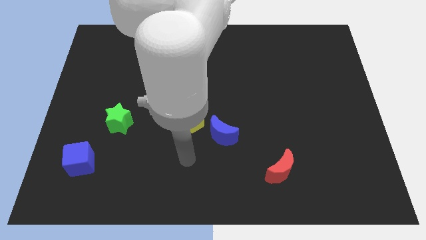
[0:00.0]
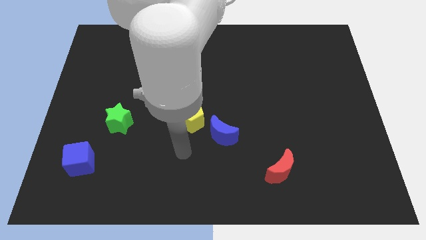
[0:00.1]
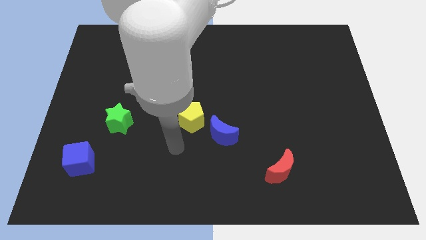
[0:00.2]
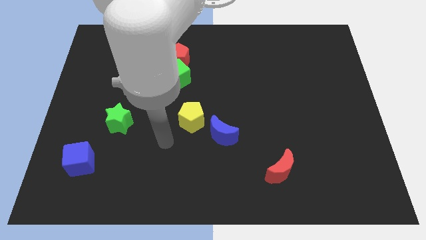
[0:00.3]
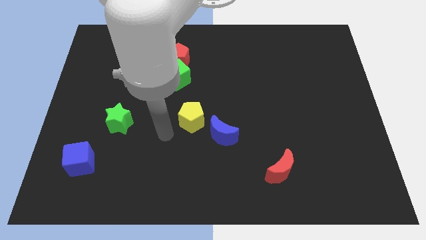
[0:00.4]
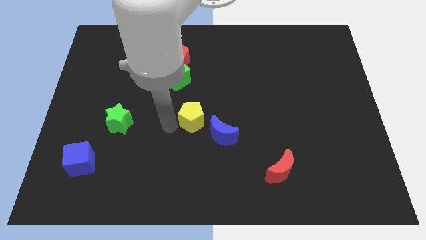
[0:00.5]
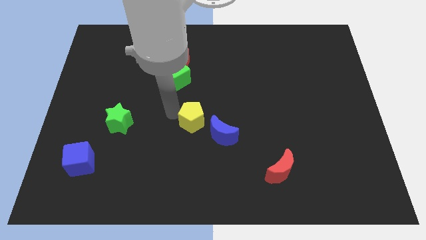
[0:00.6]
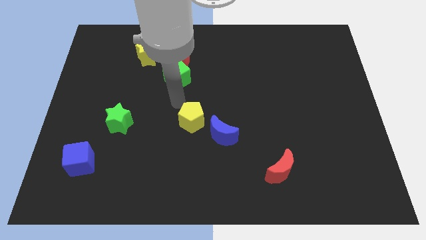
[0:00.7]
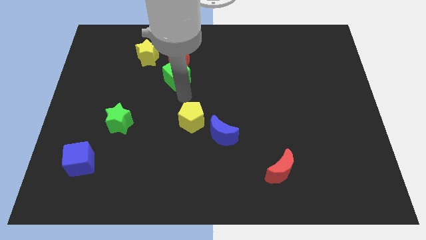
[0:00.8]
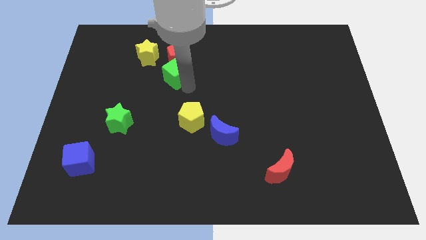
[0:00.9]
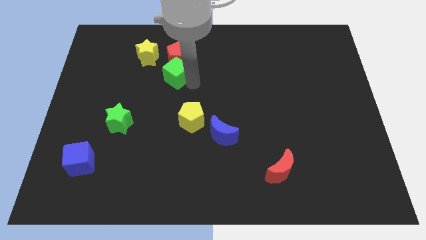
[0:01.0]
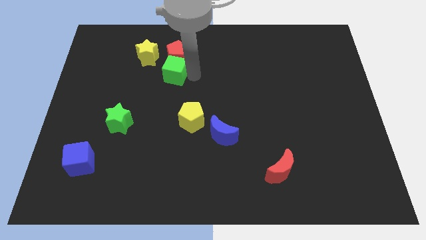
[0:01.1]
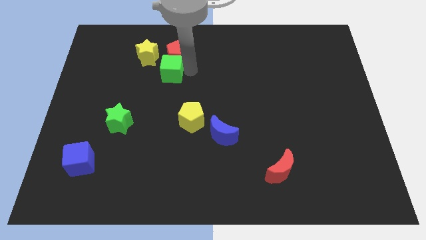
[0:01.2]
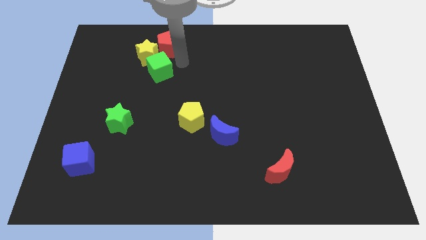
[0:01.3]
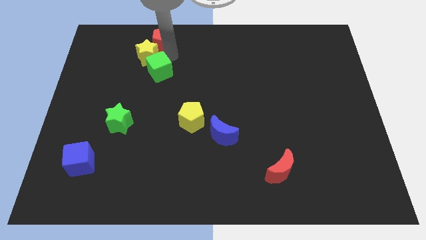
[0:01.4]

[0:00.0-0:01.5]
pull the green cube apart from the red pentagon

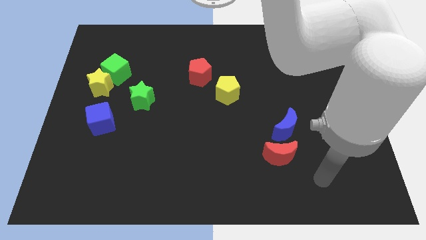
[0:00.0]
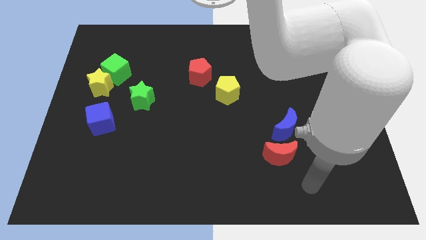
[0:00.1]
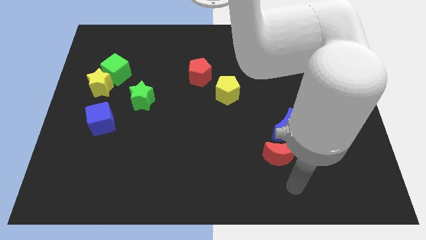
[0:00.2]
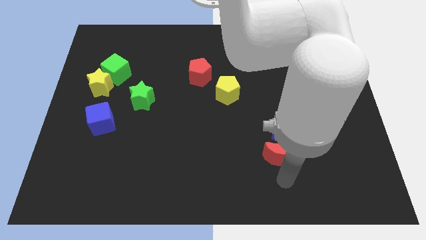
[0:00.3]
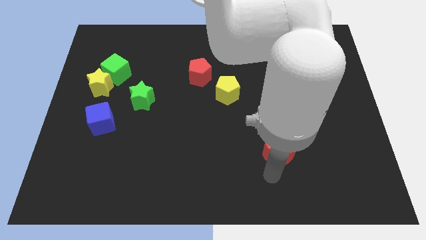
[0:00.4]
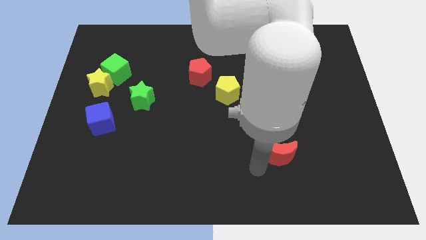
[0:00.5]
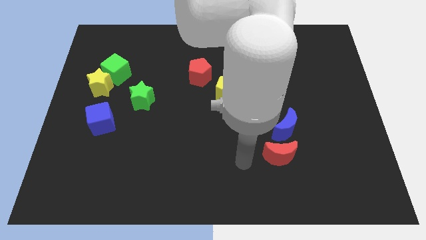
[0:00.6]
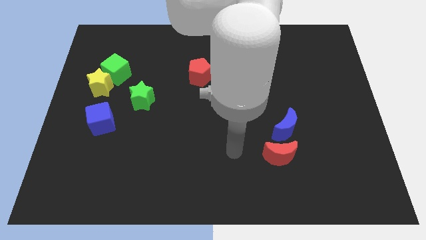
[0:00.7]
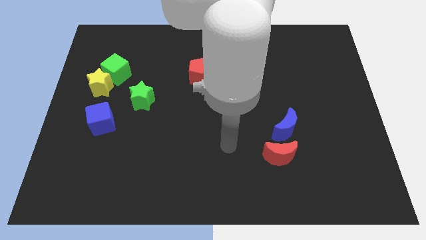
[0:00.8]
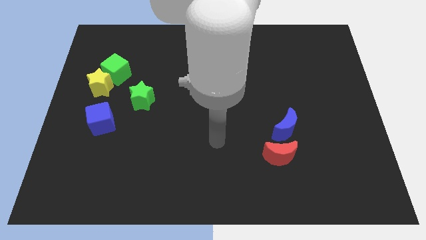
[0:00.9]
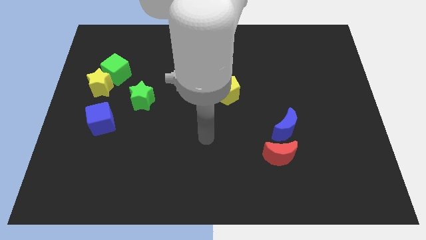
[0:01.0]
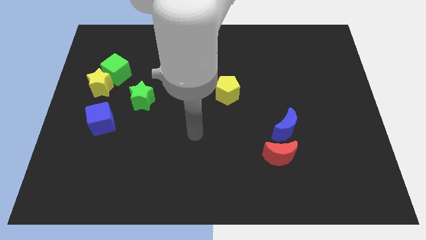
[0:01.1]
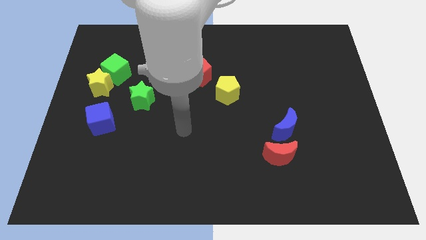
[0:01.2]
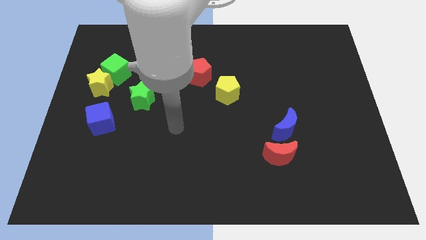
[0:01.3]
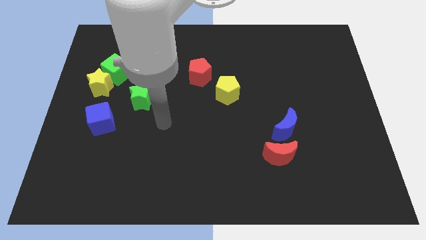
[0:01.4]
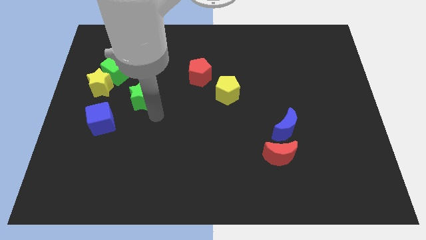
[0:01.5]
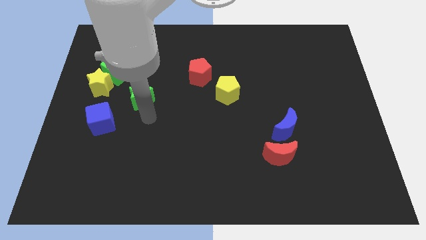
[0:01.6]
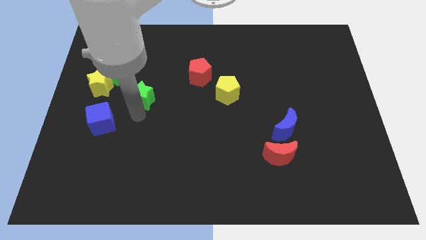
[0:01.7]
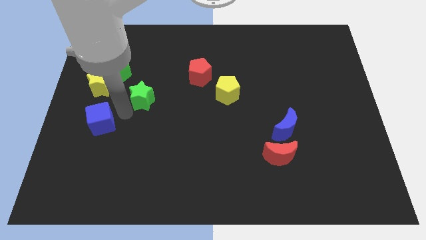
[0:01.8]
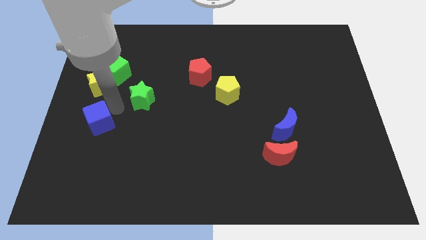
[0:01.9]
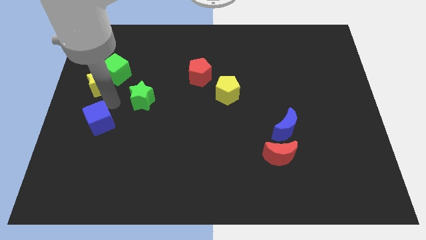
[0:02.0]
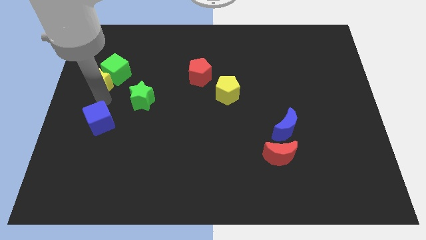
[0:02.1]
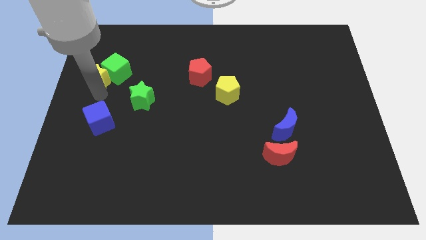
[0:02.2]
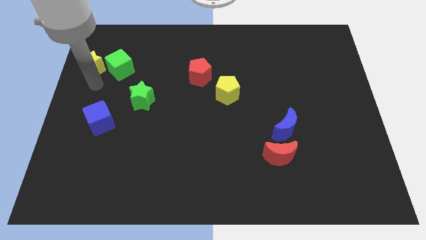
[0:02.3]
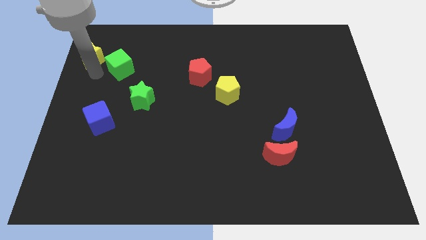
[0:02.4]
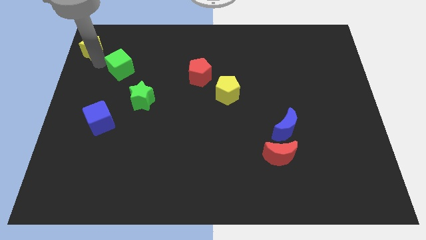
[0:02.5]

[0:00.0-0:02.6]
pull the green cube apart from the yellow star

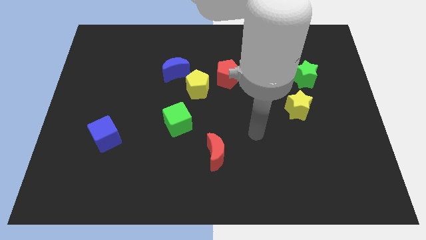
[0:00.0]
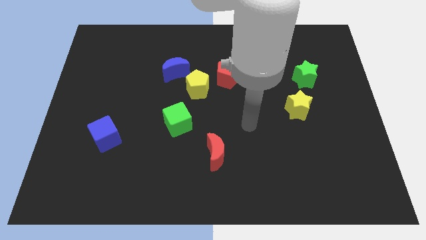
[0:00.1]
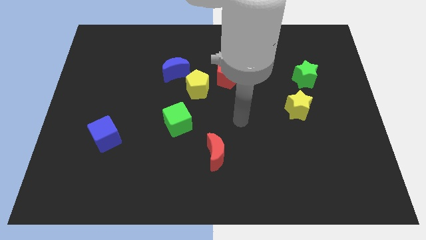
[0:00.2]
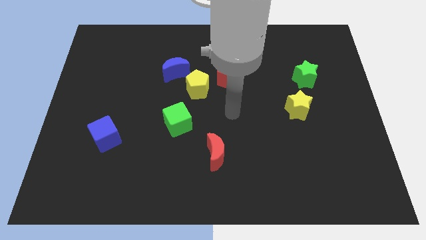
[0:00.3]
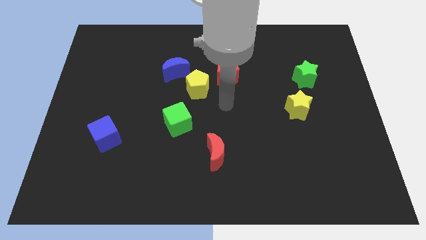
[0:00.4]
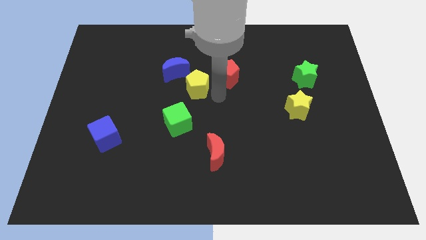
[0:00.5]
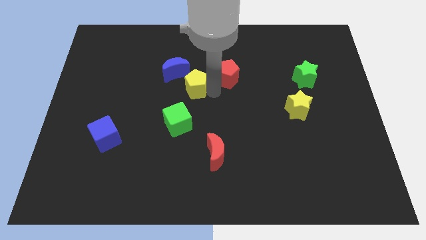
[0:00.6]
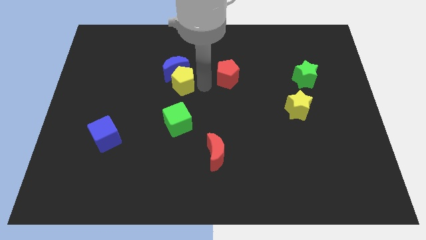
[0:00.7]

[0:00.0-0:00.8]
move the red pentagon away from the yellow pentagon

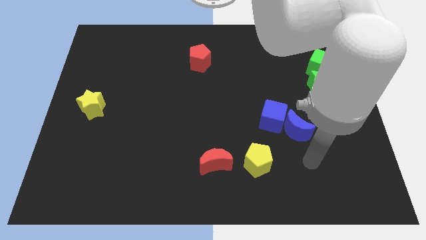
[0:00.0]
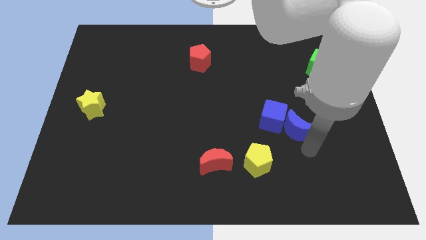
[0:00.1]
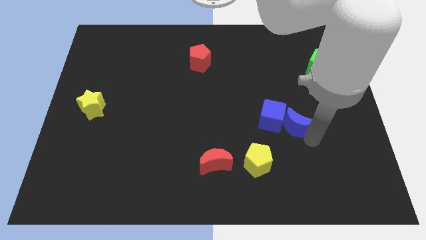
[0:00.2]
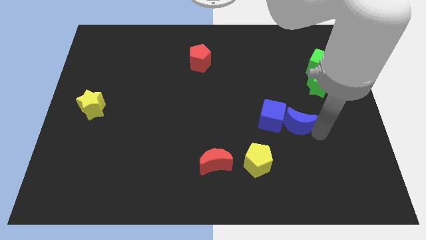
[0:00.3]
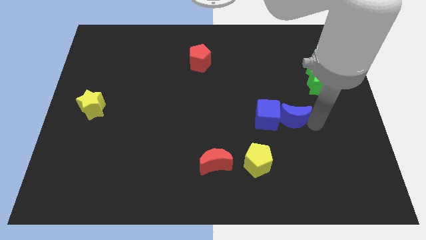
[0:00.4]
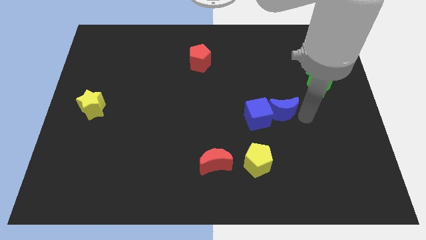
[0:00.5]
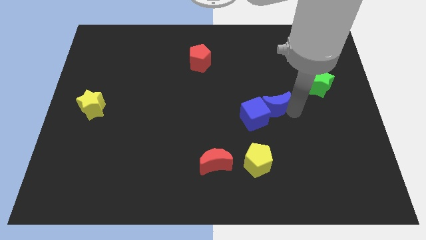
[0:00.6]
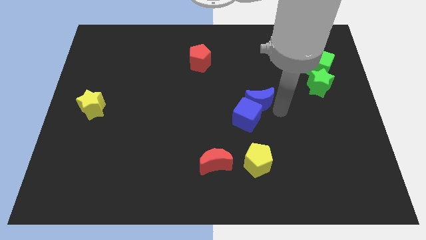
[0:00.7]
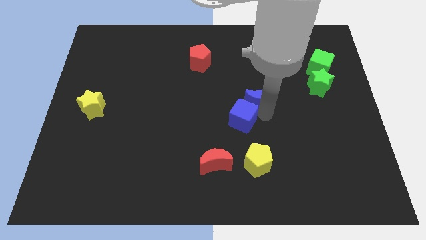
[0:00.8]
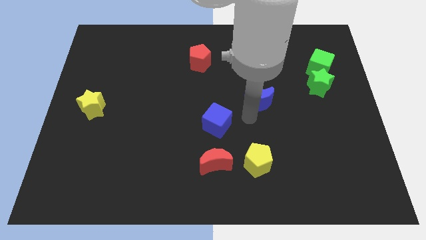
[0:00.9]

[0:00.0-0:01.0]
separate the blue moon from the blue cube

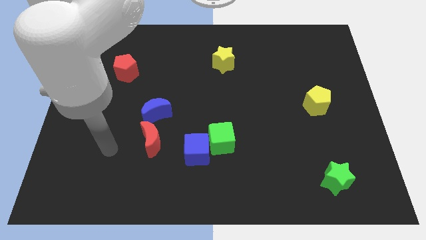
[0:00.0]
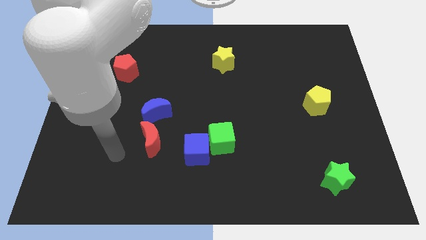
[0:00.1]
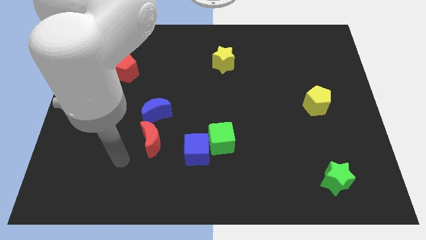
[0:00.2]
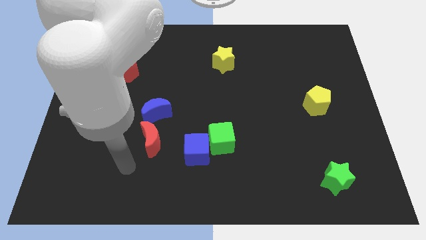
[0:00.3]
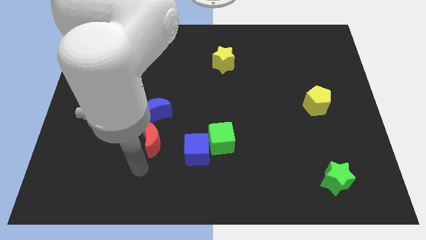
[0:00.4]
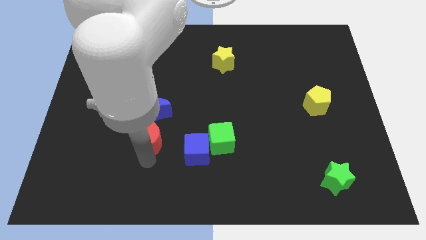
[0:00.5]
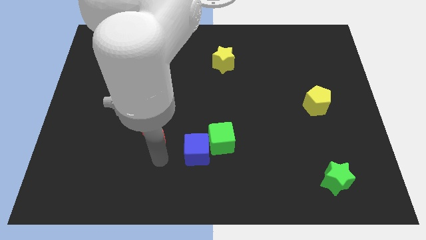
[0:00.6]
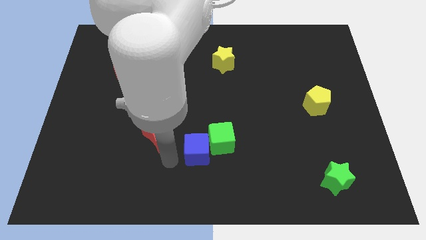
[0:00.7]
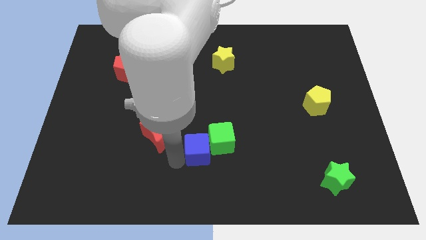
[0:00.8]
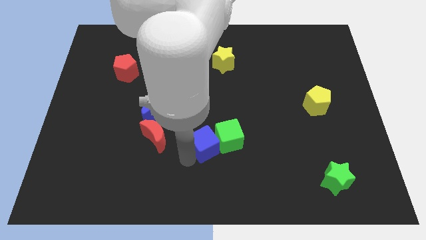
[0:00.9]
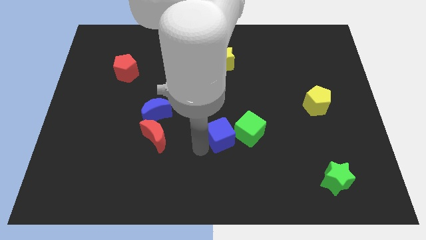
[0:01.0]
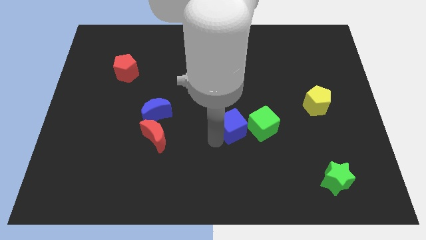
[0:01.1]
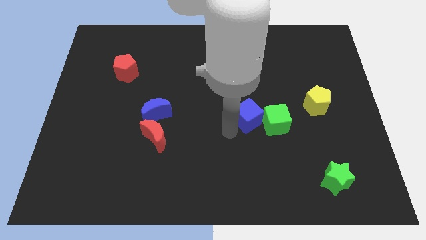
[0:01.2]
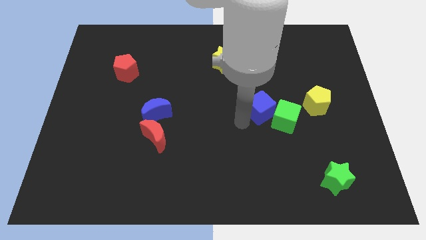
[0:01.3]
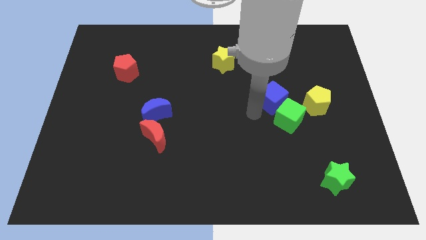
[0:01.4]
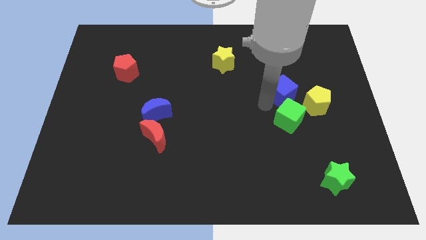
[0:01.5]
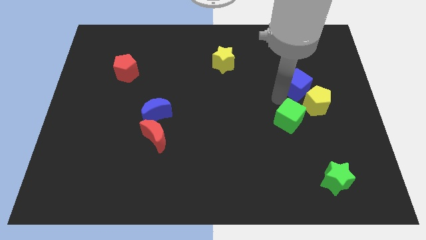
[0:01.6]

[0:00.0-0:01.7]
pull the green cube apart from the blue cube

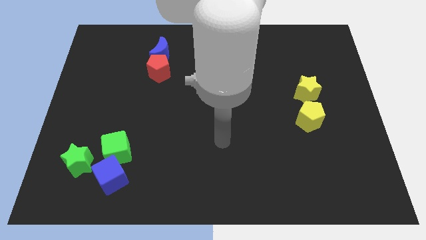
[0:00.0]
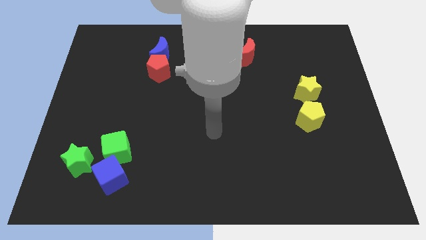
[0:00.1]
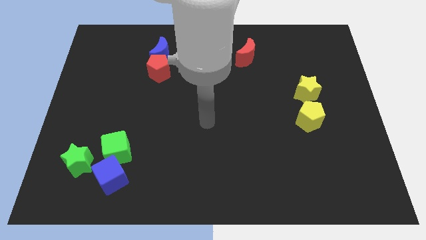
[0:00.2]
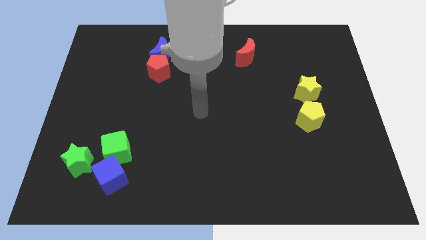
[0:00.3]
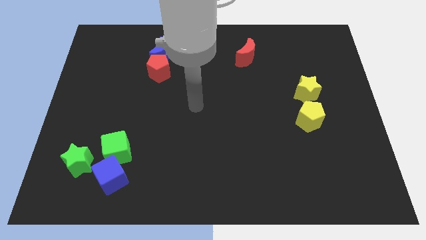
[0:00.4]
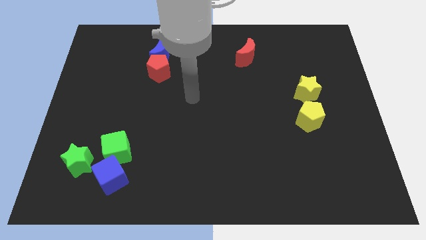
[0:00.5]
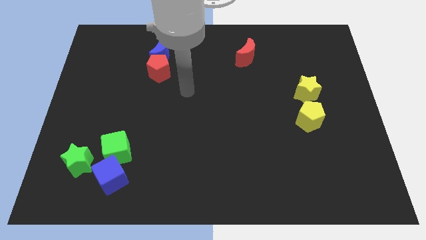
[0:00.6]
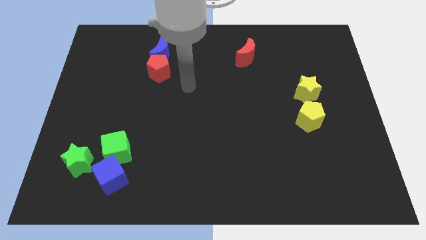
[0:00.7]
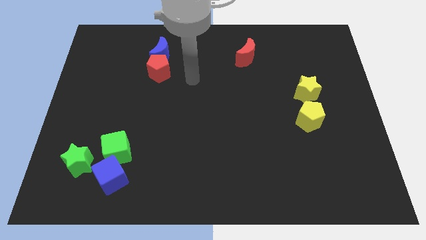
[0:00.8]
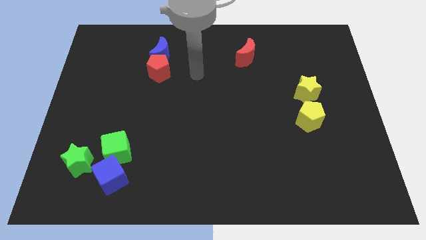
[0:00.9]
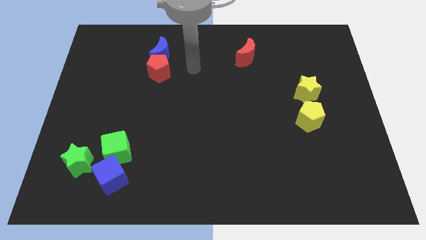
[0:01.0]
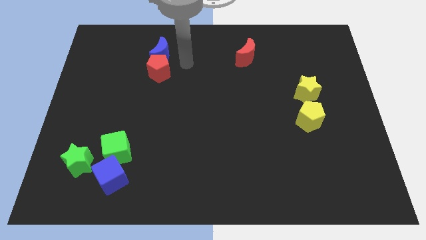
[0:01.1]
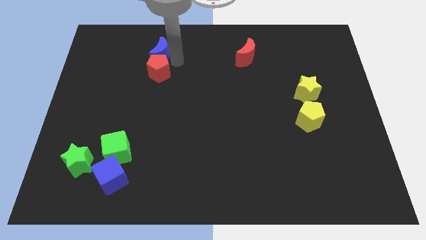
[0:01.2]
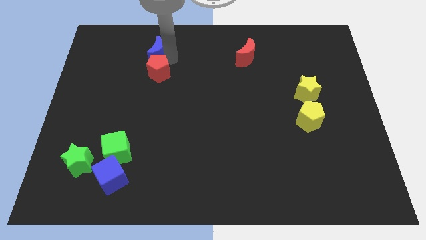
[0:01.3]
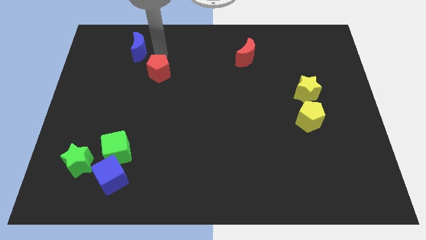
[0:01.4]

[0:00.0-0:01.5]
pull the red pentagon apart from the blue moon

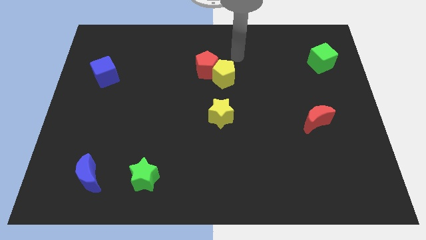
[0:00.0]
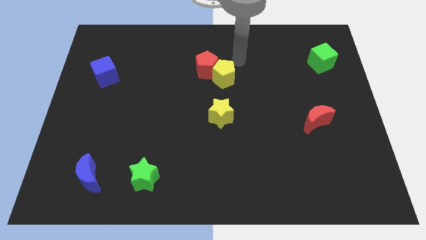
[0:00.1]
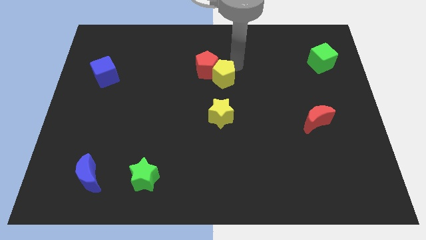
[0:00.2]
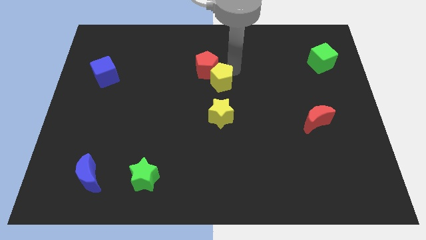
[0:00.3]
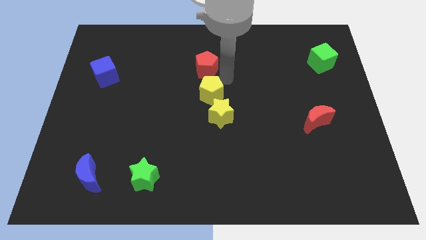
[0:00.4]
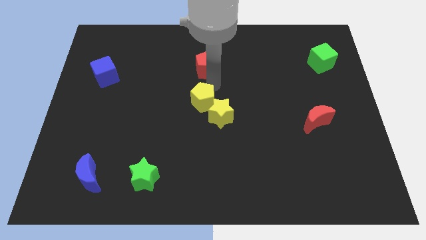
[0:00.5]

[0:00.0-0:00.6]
separate the red pentagon from the yellow pentagon
